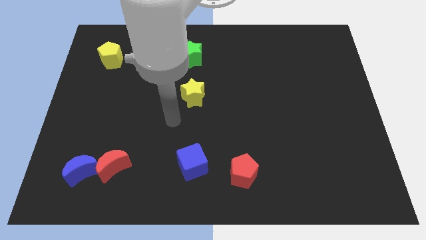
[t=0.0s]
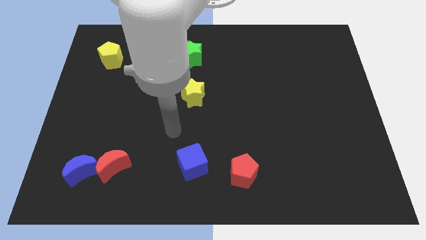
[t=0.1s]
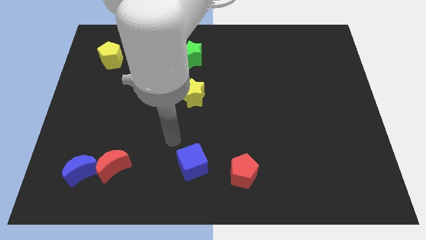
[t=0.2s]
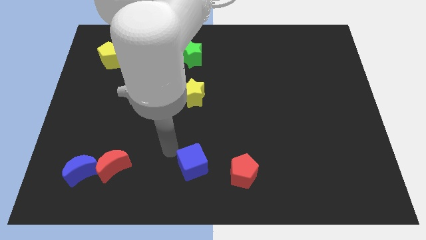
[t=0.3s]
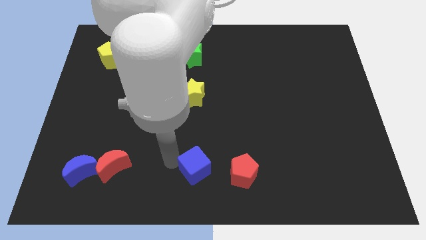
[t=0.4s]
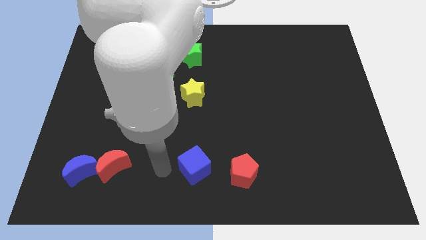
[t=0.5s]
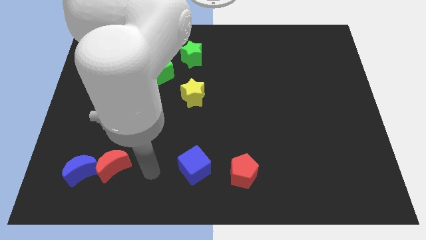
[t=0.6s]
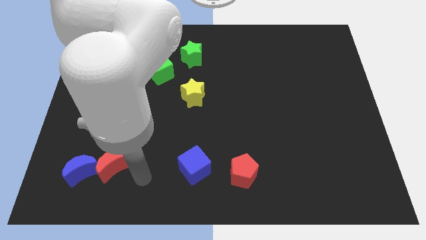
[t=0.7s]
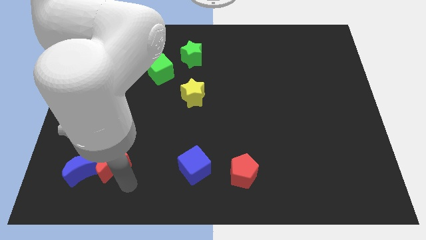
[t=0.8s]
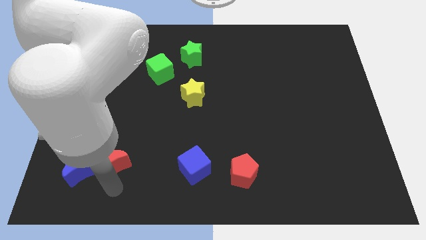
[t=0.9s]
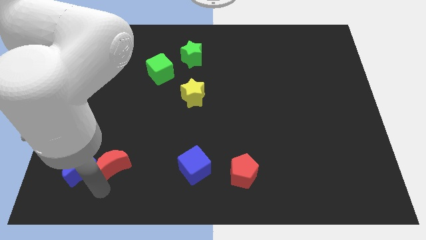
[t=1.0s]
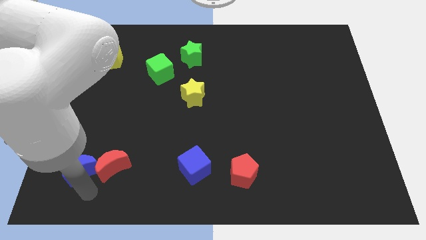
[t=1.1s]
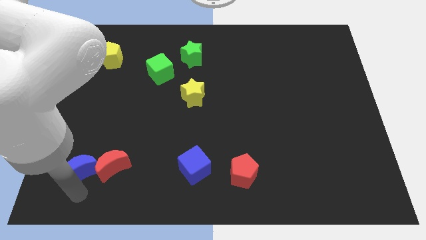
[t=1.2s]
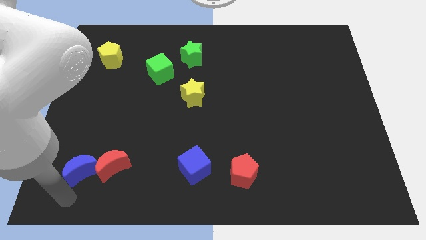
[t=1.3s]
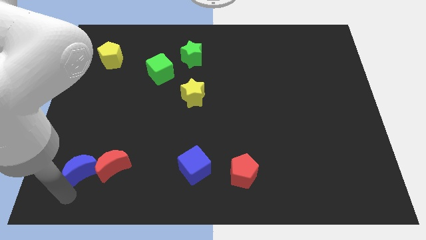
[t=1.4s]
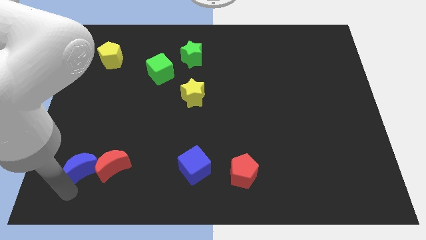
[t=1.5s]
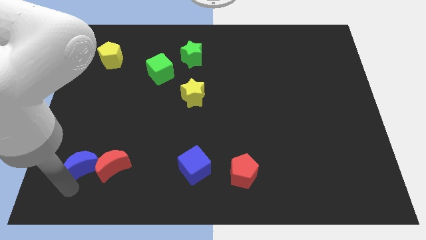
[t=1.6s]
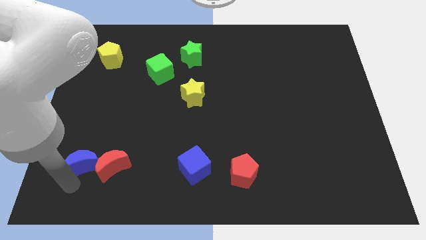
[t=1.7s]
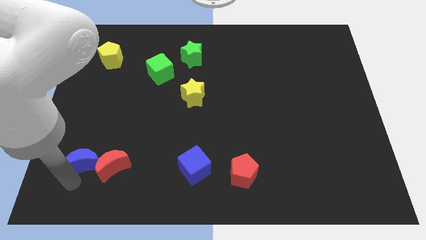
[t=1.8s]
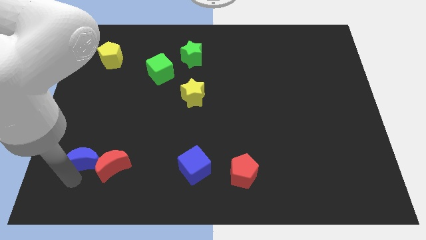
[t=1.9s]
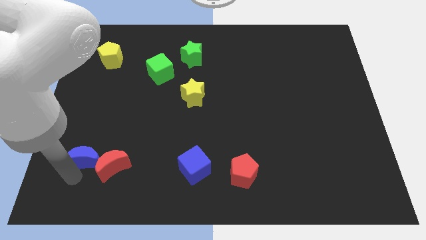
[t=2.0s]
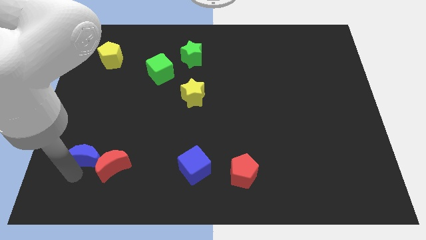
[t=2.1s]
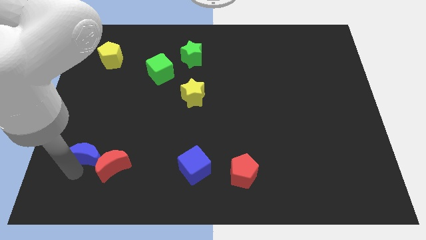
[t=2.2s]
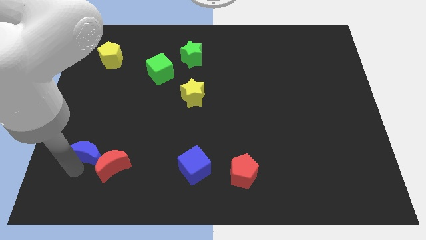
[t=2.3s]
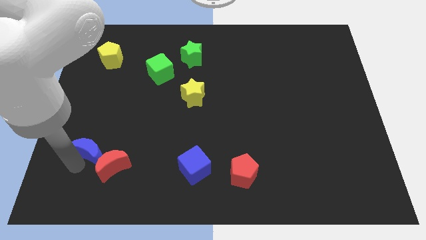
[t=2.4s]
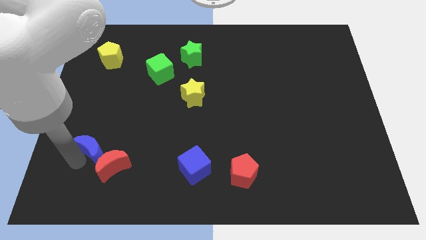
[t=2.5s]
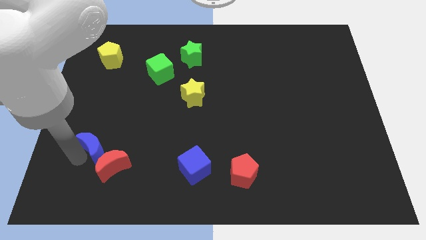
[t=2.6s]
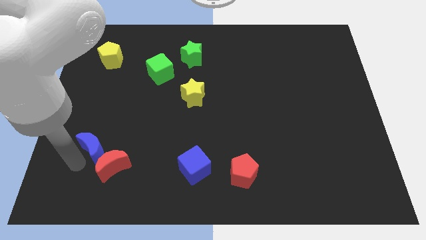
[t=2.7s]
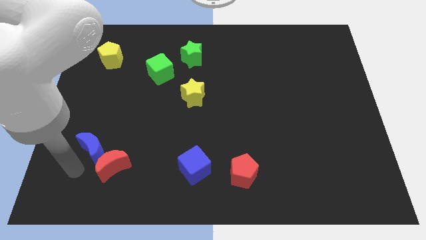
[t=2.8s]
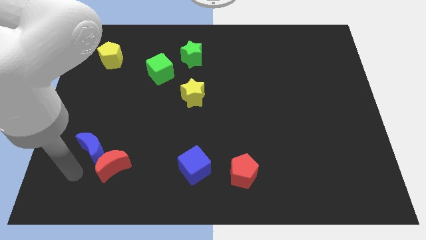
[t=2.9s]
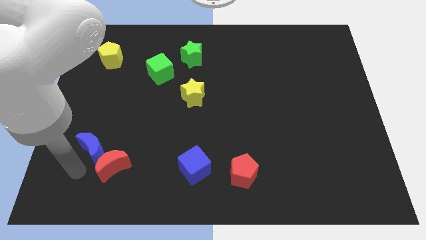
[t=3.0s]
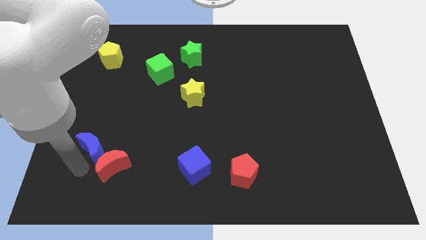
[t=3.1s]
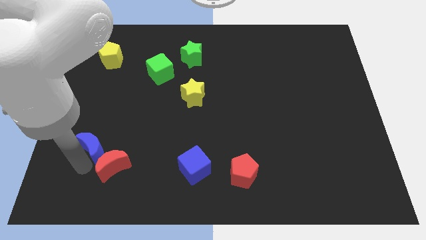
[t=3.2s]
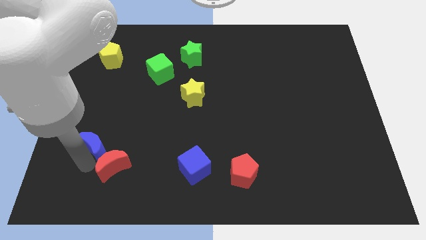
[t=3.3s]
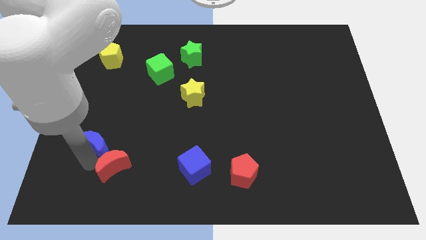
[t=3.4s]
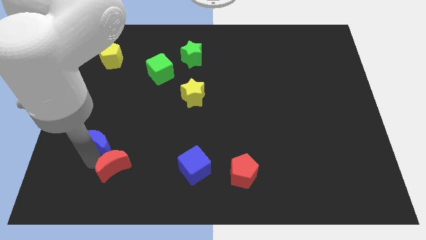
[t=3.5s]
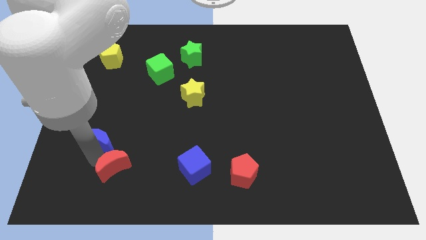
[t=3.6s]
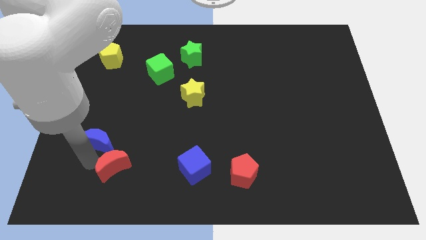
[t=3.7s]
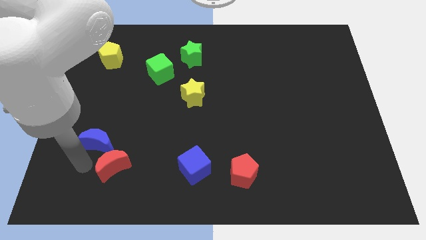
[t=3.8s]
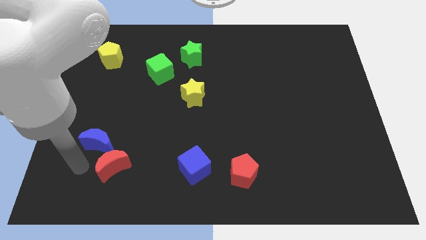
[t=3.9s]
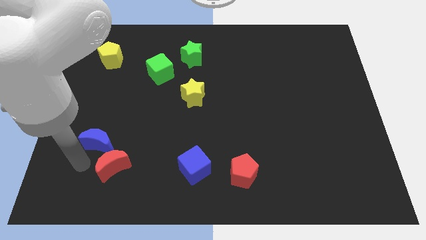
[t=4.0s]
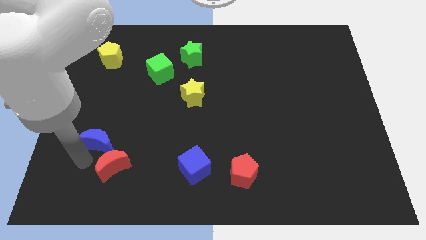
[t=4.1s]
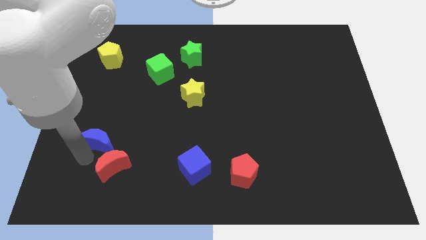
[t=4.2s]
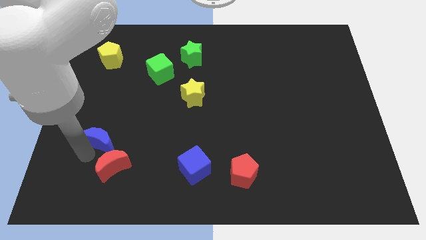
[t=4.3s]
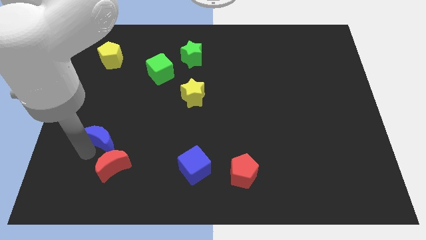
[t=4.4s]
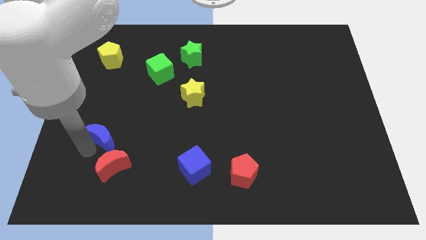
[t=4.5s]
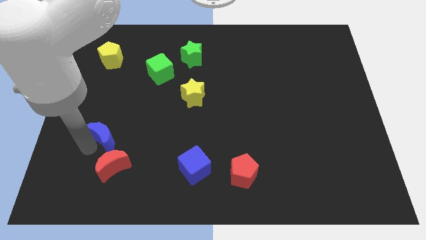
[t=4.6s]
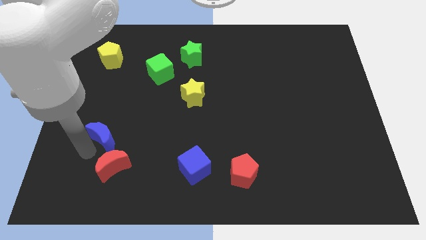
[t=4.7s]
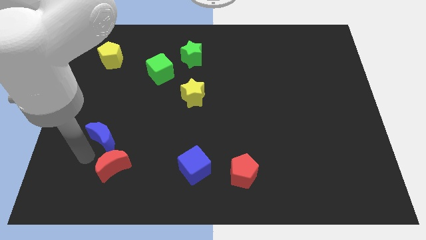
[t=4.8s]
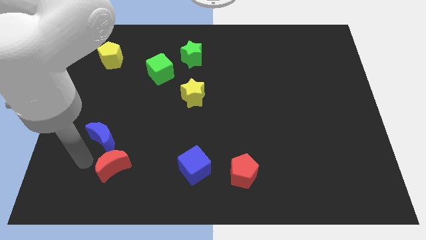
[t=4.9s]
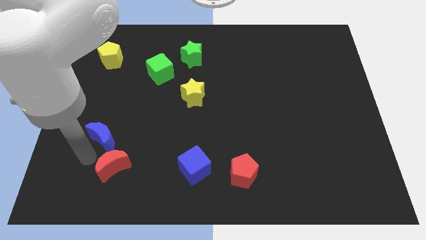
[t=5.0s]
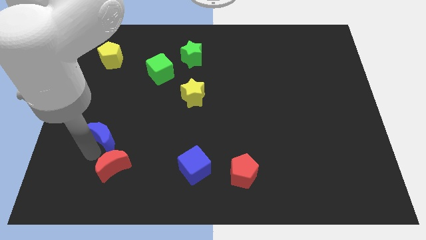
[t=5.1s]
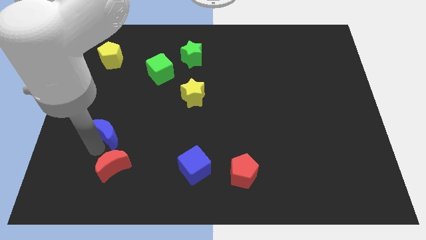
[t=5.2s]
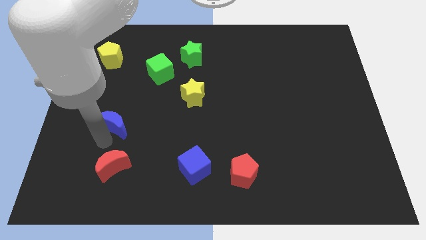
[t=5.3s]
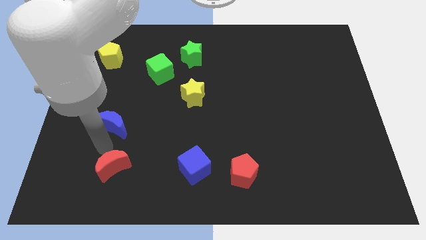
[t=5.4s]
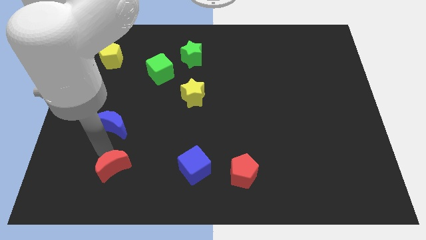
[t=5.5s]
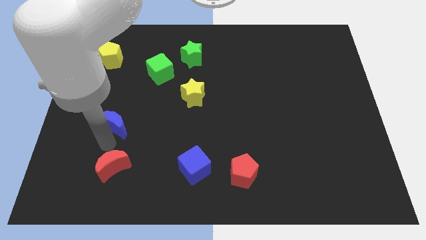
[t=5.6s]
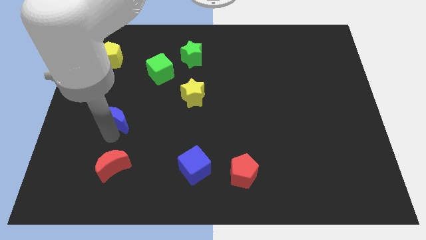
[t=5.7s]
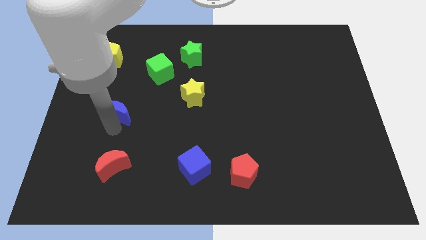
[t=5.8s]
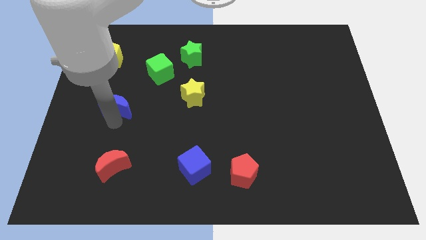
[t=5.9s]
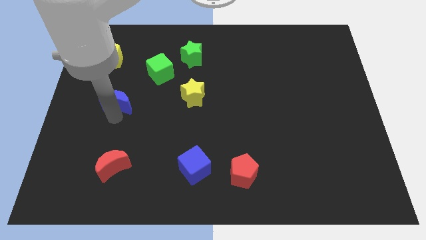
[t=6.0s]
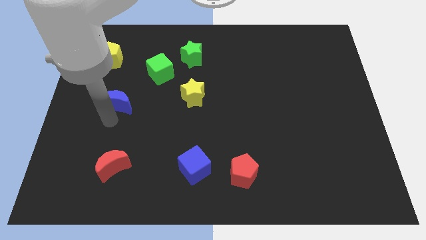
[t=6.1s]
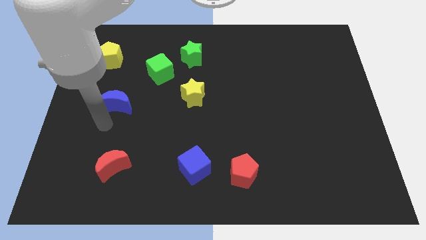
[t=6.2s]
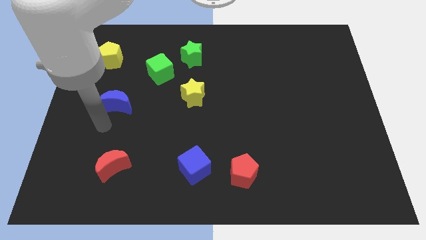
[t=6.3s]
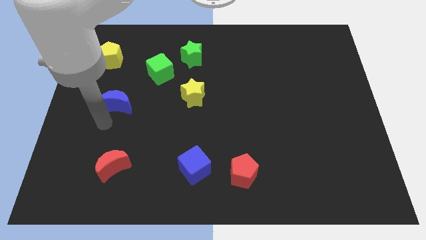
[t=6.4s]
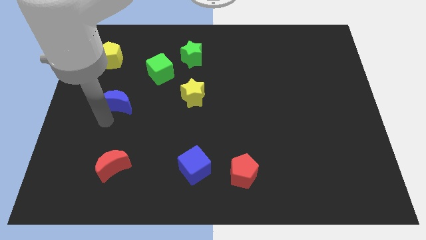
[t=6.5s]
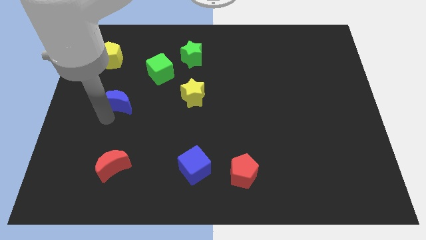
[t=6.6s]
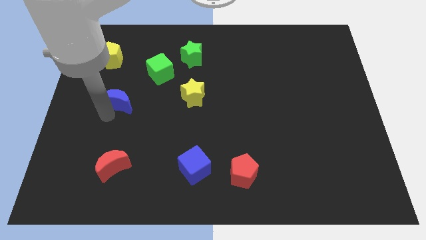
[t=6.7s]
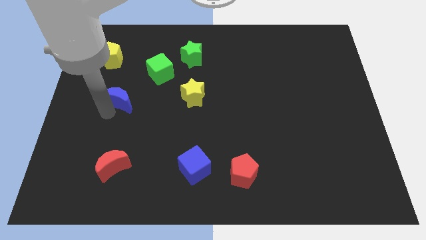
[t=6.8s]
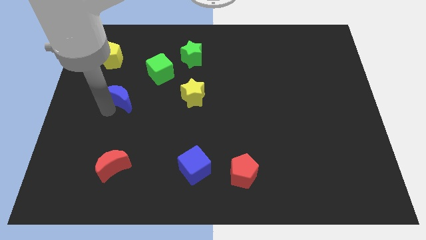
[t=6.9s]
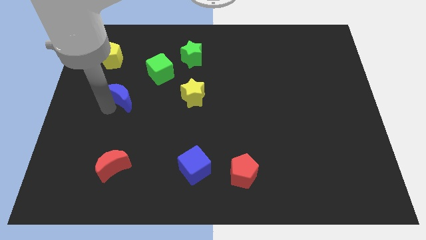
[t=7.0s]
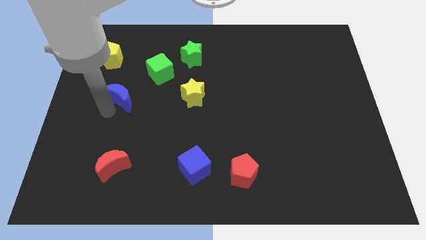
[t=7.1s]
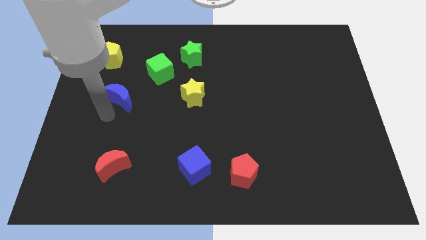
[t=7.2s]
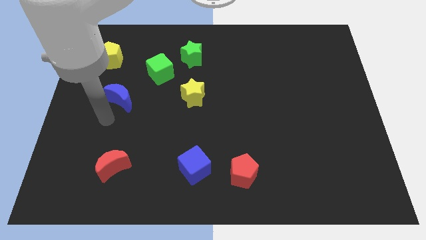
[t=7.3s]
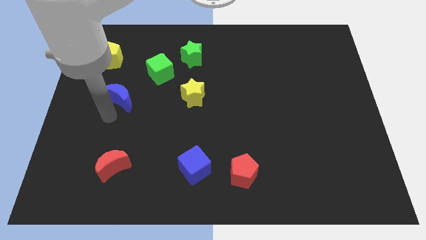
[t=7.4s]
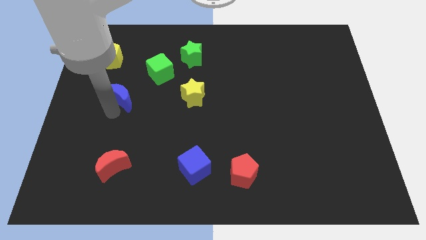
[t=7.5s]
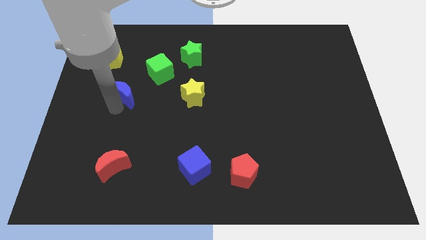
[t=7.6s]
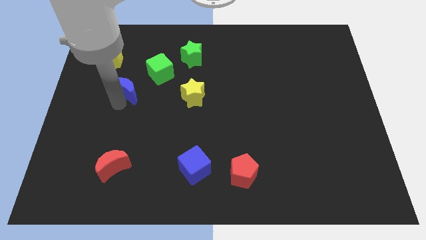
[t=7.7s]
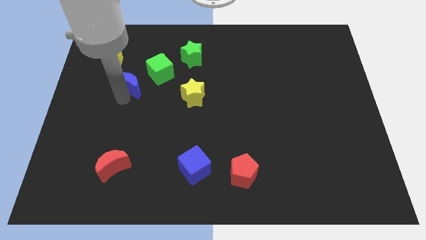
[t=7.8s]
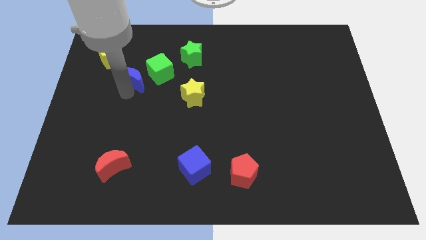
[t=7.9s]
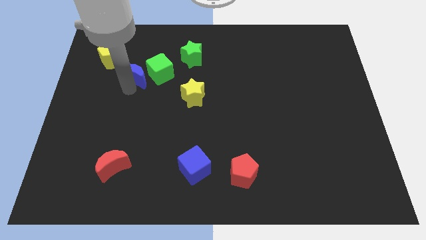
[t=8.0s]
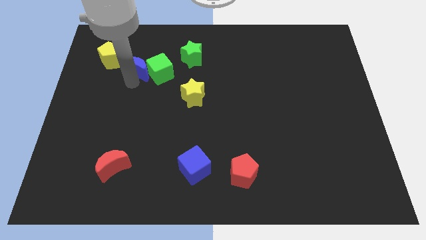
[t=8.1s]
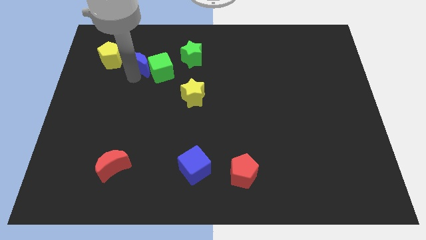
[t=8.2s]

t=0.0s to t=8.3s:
push the blue moon just left of the green star
